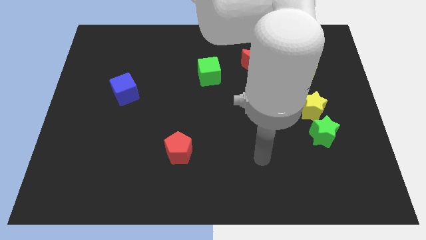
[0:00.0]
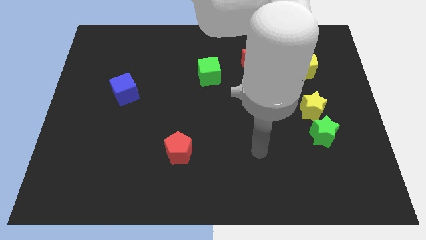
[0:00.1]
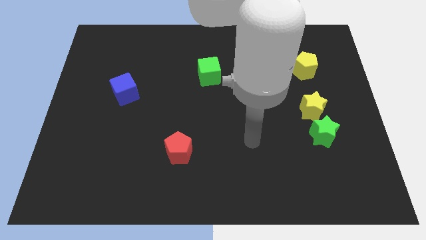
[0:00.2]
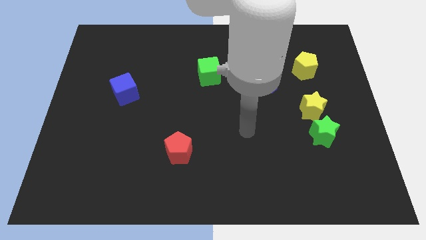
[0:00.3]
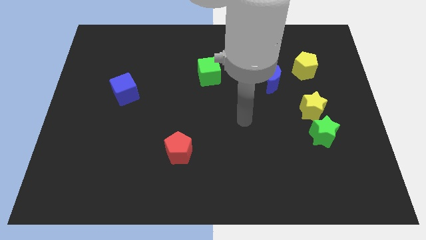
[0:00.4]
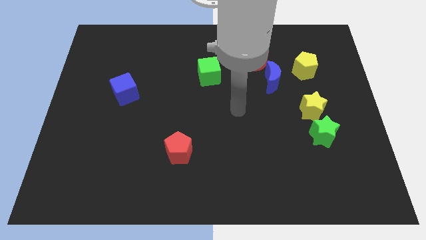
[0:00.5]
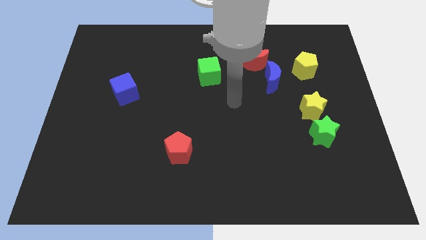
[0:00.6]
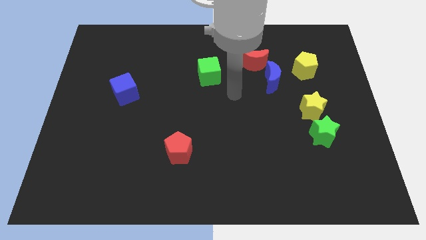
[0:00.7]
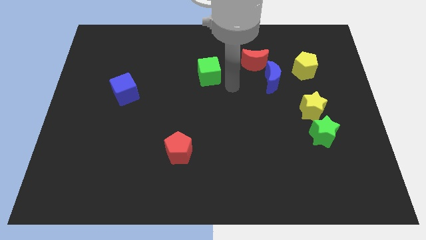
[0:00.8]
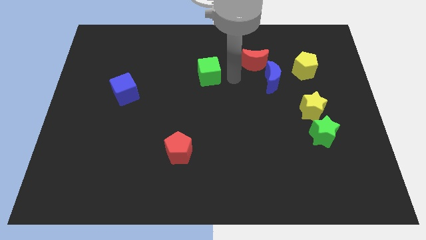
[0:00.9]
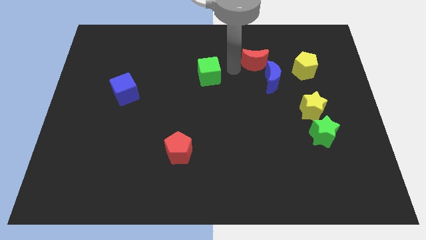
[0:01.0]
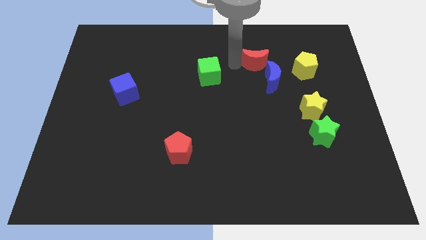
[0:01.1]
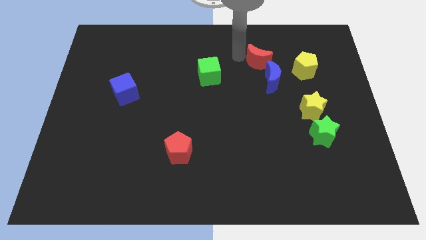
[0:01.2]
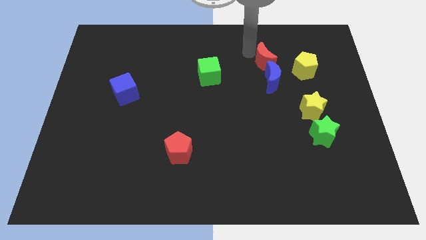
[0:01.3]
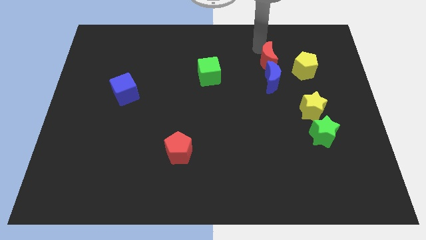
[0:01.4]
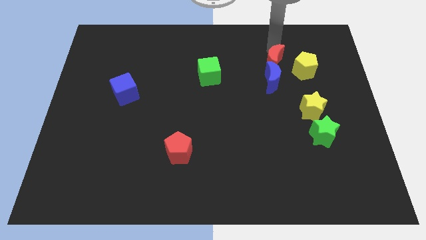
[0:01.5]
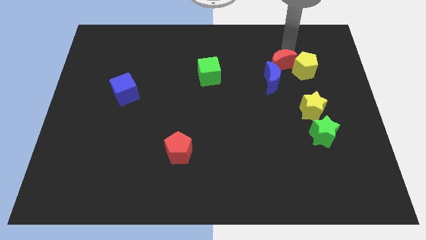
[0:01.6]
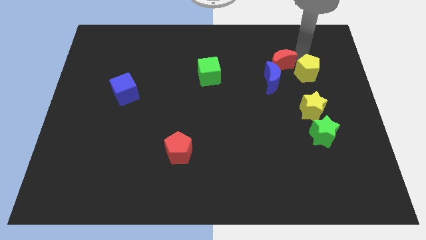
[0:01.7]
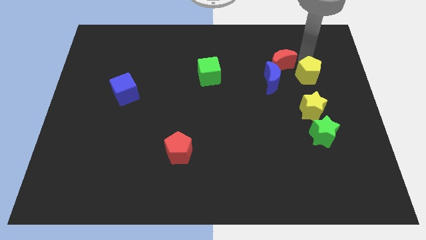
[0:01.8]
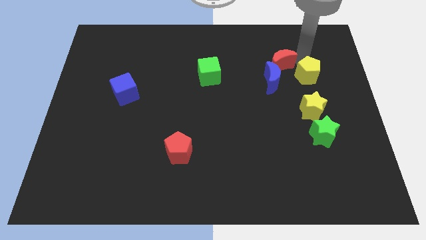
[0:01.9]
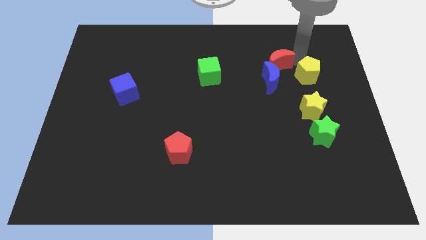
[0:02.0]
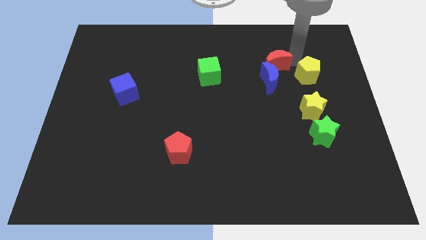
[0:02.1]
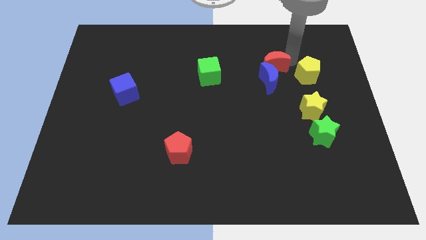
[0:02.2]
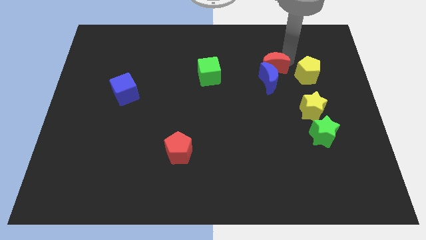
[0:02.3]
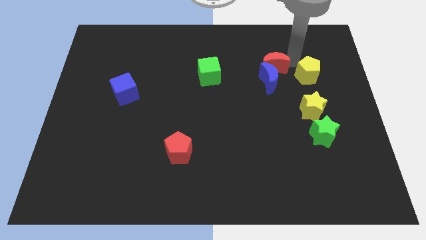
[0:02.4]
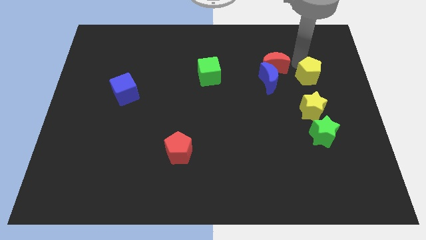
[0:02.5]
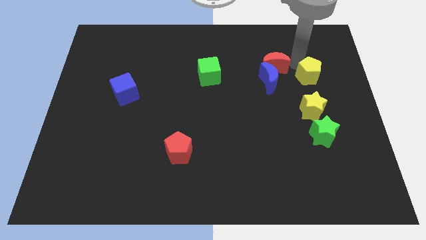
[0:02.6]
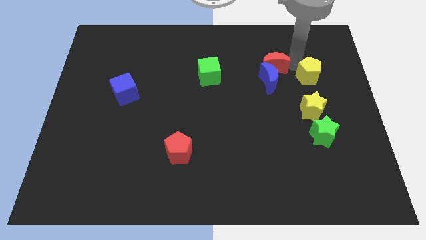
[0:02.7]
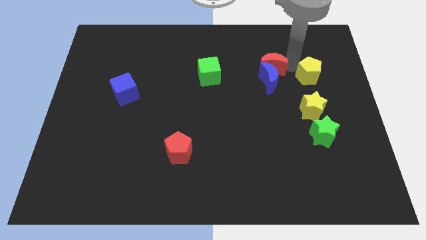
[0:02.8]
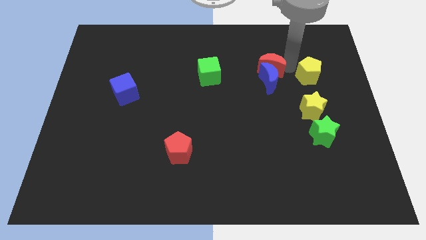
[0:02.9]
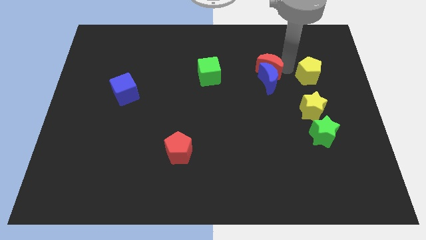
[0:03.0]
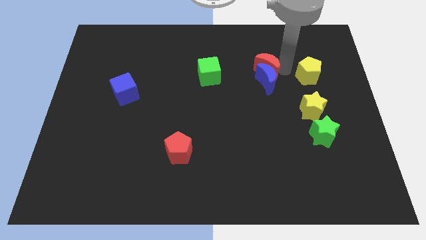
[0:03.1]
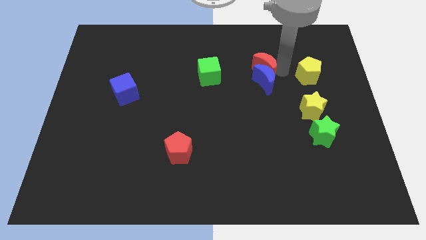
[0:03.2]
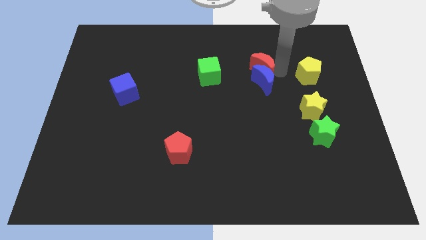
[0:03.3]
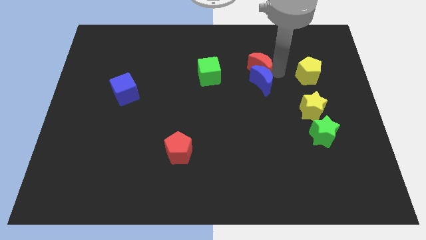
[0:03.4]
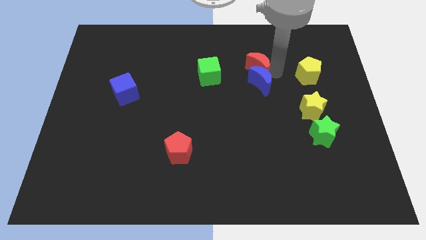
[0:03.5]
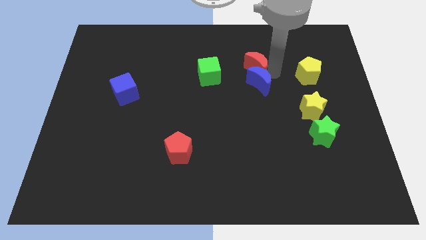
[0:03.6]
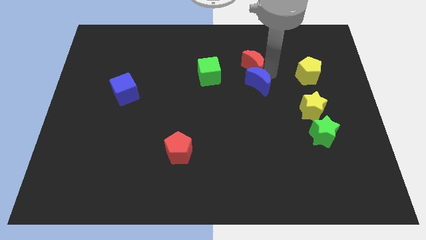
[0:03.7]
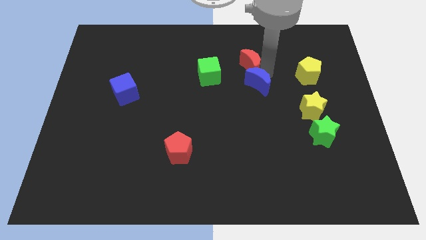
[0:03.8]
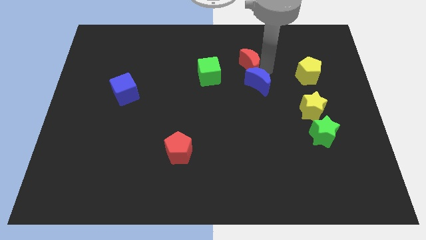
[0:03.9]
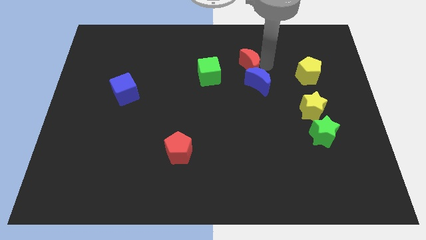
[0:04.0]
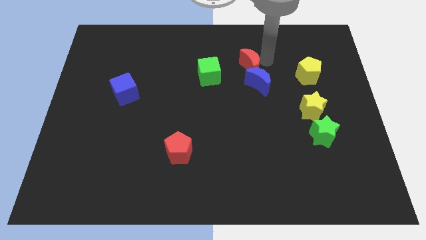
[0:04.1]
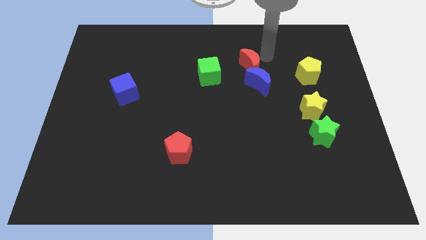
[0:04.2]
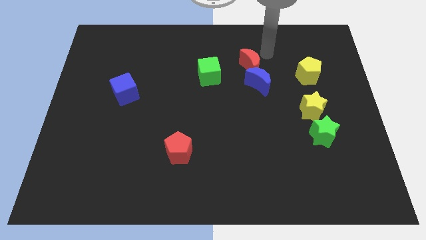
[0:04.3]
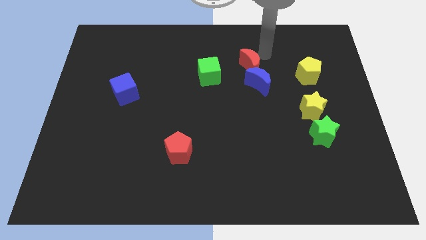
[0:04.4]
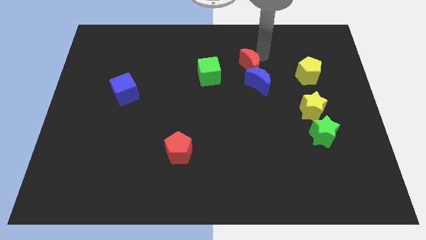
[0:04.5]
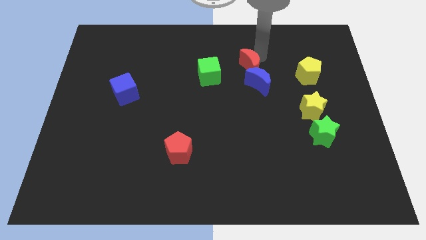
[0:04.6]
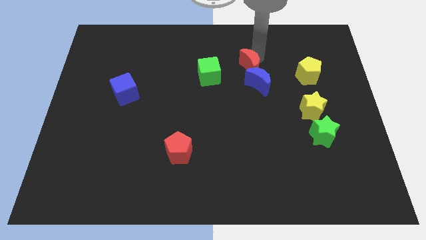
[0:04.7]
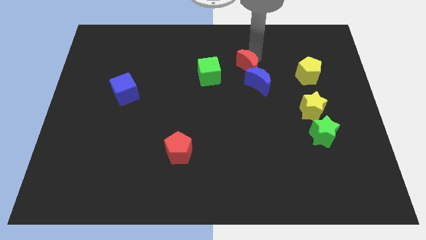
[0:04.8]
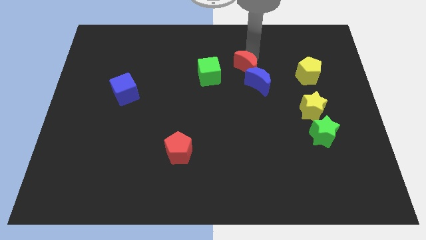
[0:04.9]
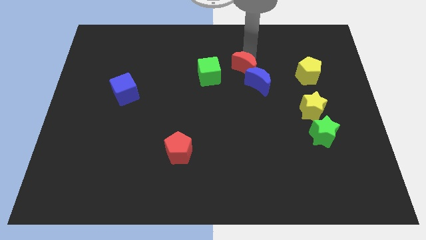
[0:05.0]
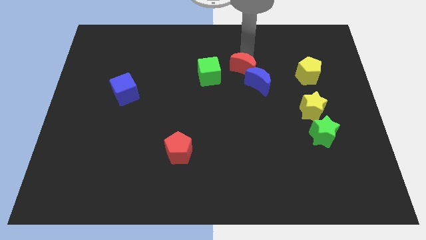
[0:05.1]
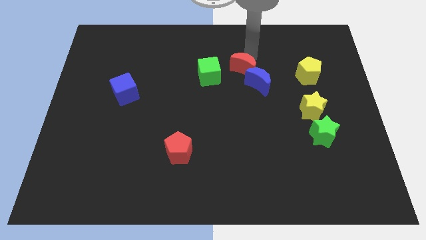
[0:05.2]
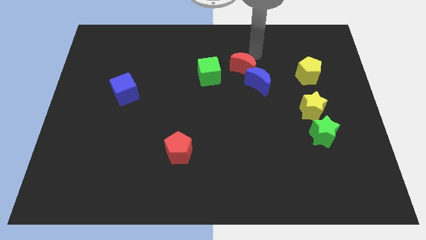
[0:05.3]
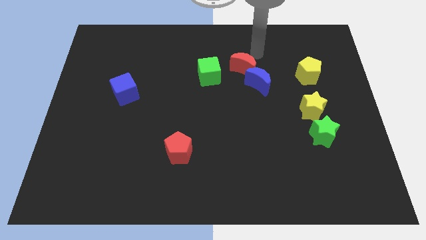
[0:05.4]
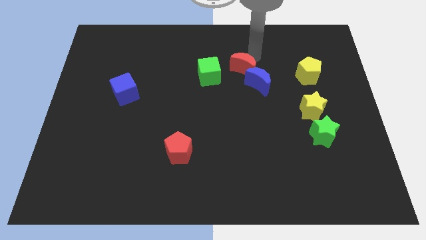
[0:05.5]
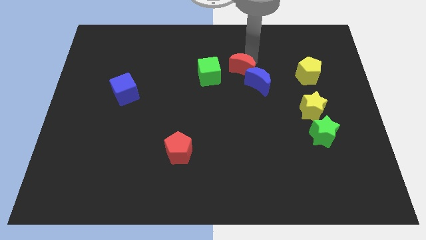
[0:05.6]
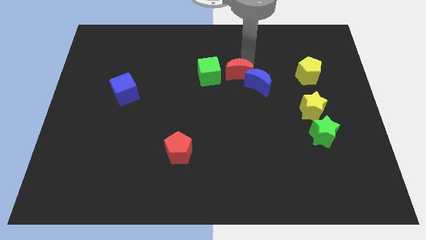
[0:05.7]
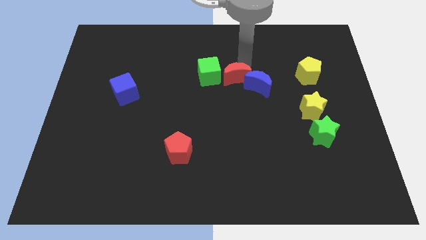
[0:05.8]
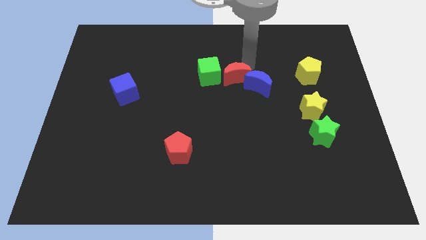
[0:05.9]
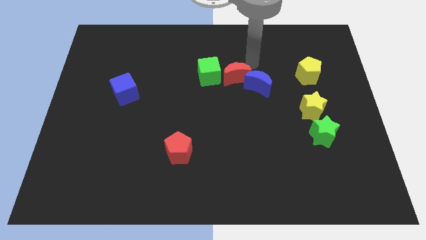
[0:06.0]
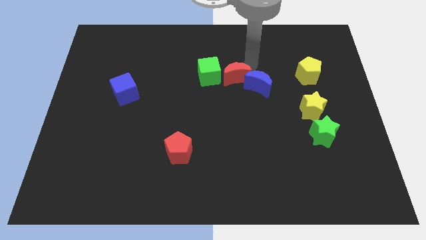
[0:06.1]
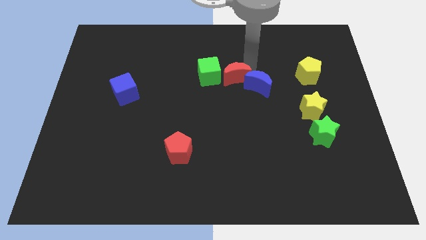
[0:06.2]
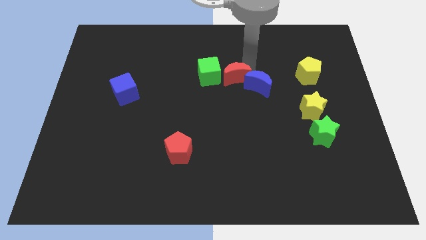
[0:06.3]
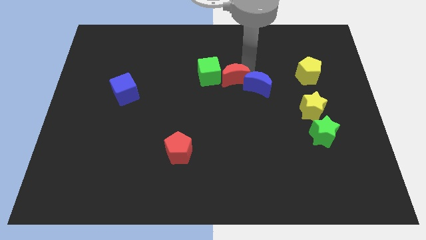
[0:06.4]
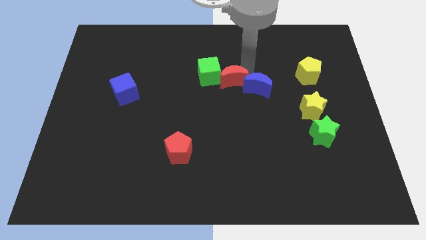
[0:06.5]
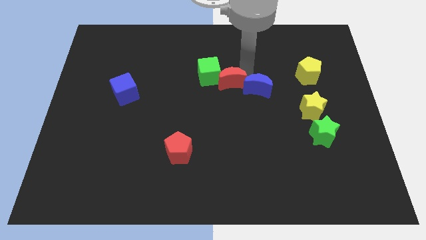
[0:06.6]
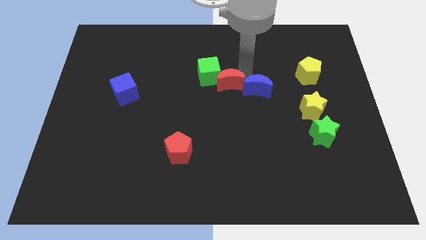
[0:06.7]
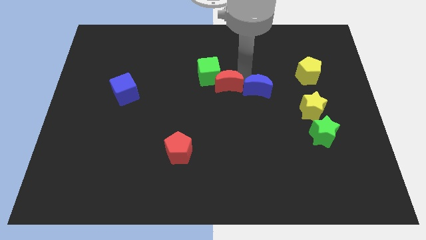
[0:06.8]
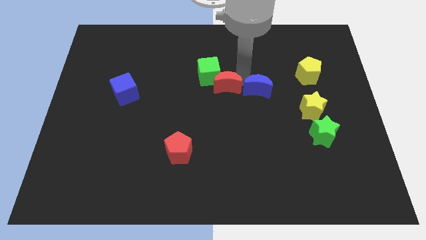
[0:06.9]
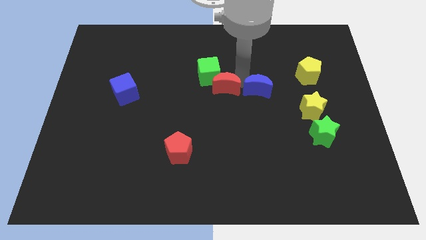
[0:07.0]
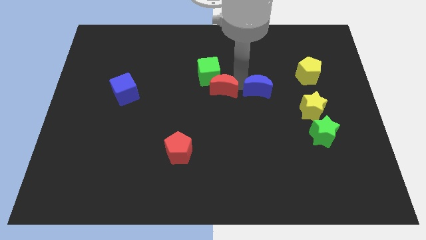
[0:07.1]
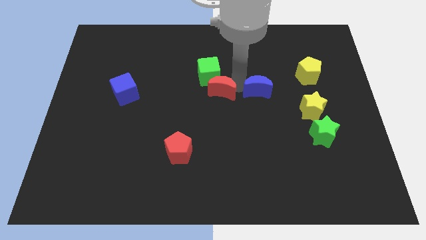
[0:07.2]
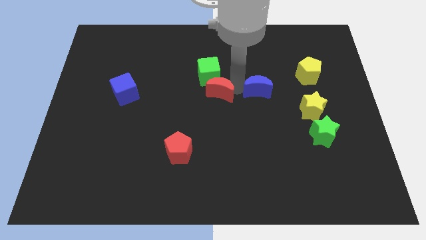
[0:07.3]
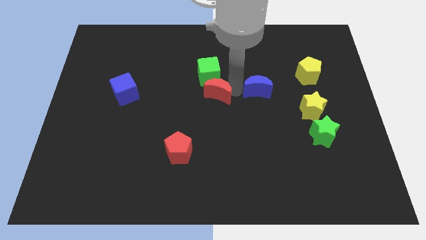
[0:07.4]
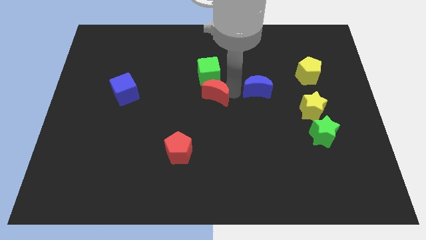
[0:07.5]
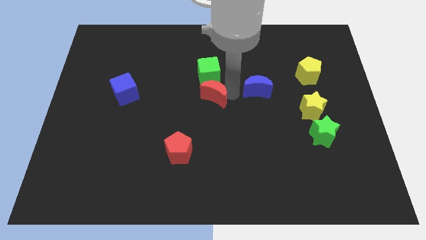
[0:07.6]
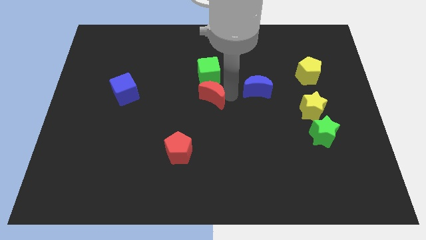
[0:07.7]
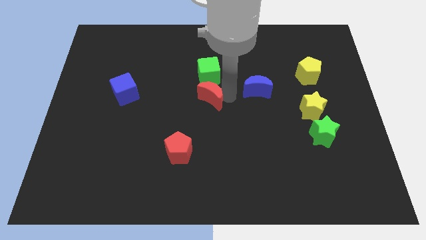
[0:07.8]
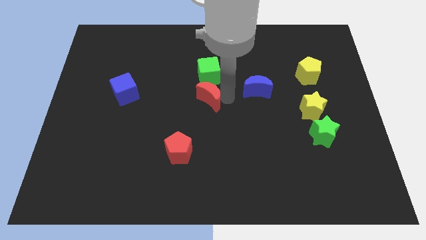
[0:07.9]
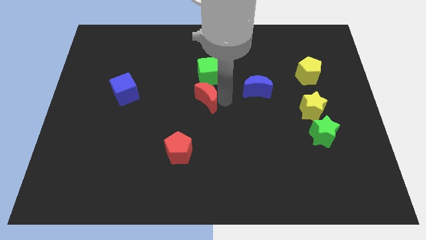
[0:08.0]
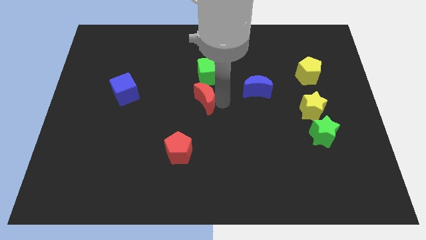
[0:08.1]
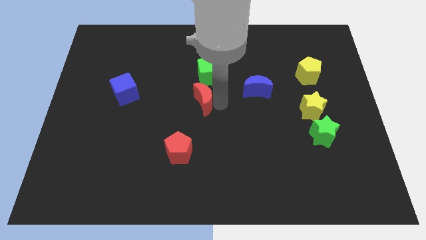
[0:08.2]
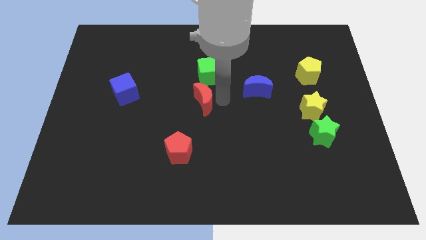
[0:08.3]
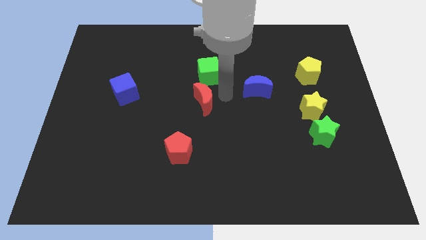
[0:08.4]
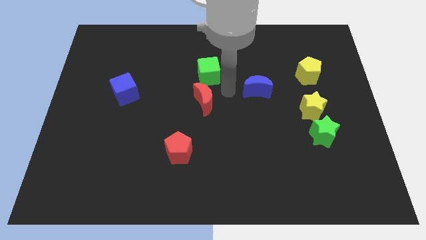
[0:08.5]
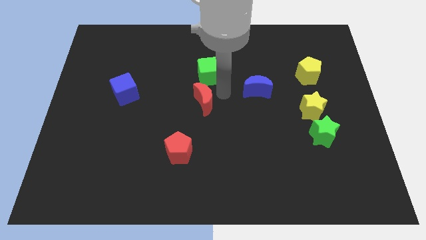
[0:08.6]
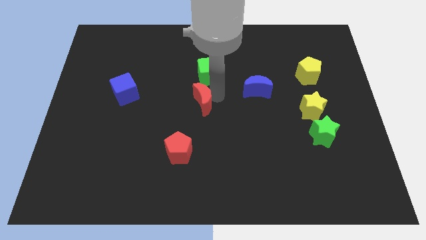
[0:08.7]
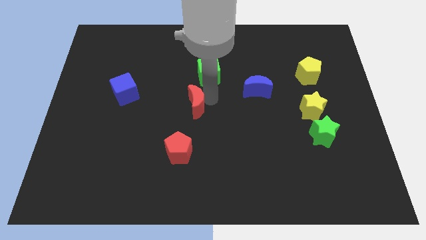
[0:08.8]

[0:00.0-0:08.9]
move the red moon down and then left
